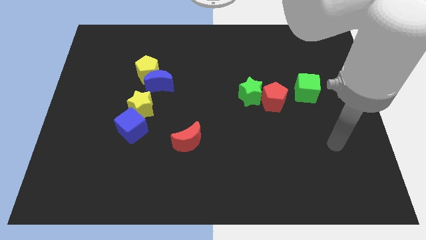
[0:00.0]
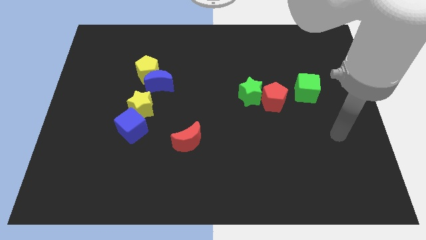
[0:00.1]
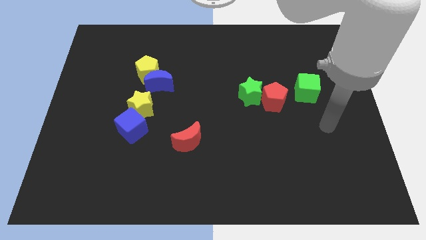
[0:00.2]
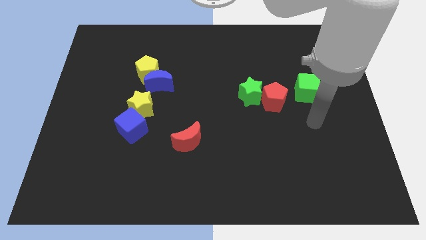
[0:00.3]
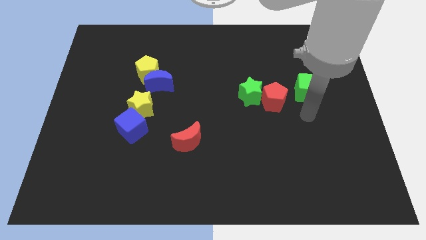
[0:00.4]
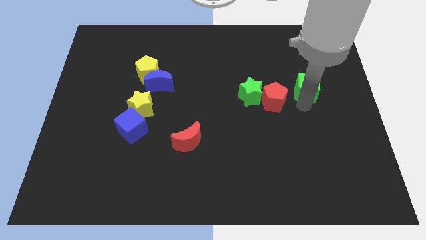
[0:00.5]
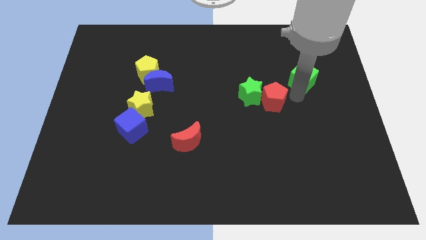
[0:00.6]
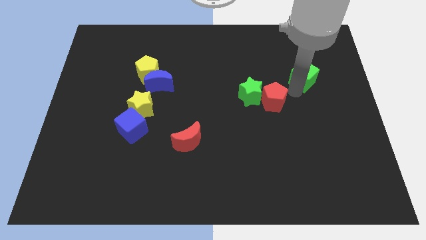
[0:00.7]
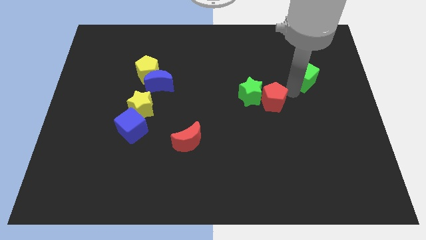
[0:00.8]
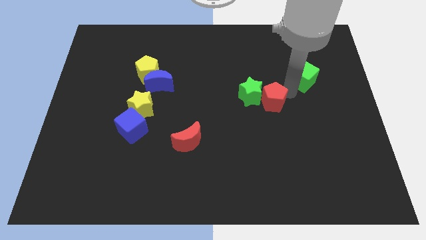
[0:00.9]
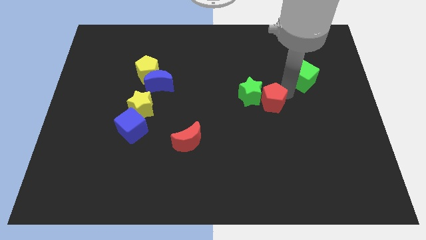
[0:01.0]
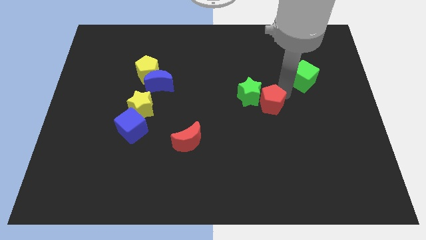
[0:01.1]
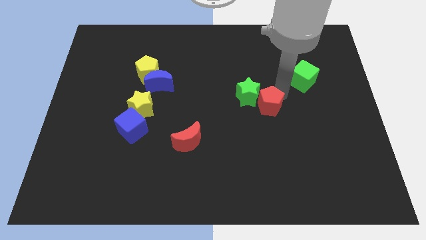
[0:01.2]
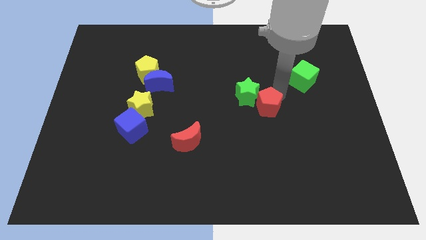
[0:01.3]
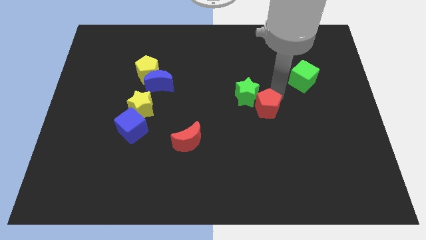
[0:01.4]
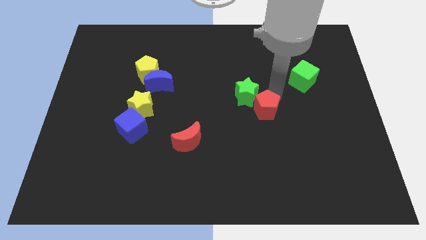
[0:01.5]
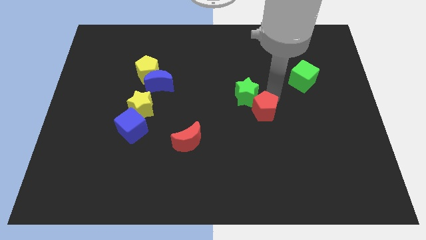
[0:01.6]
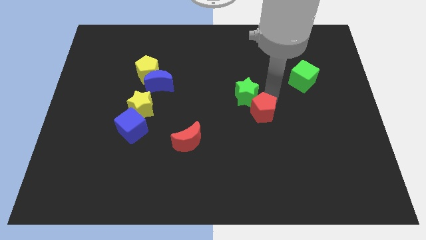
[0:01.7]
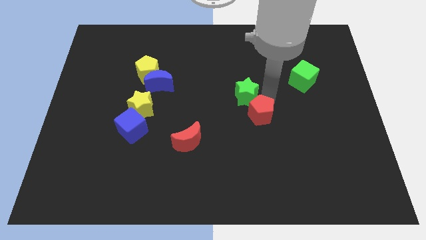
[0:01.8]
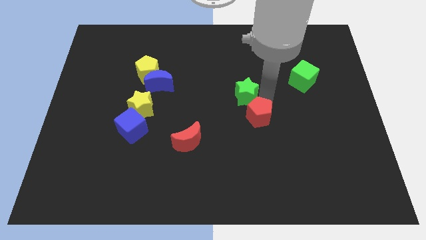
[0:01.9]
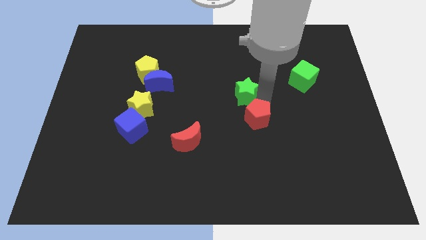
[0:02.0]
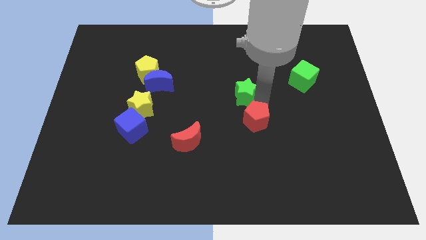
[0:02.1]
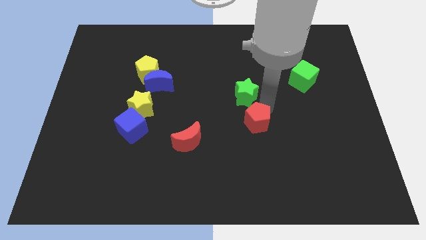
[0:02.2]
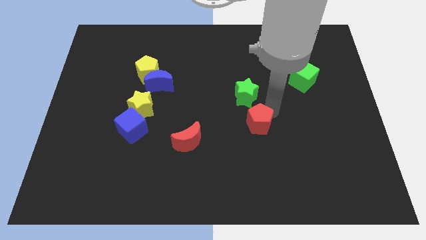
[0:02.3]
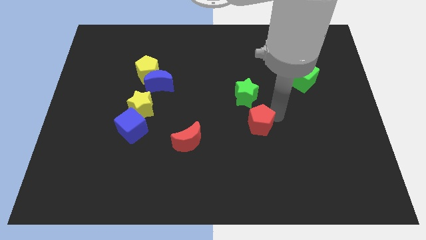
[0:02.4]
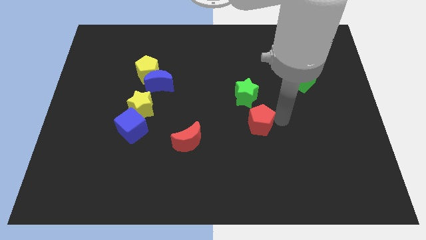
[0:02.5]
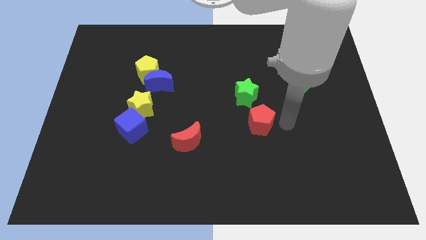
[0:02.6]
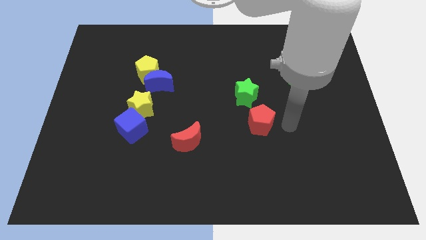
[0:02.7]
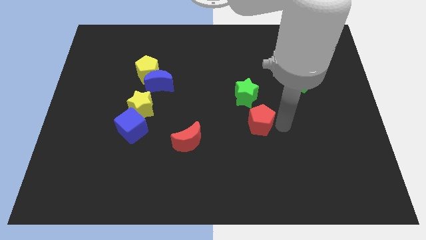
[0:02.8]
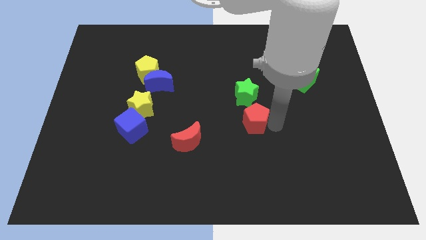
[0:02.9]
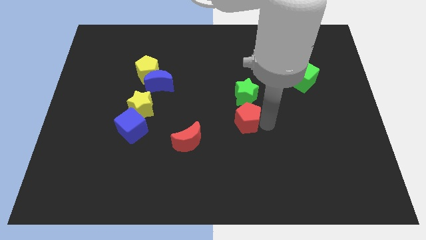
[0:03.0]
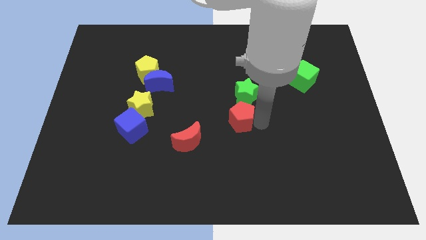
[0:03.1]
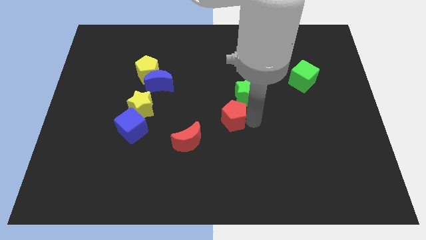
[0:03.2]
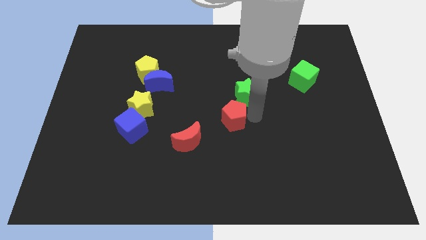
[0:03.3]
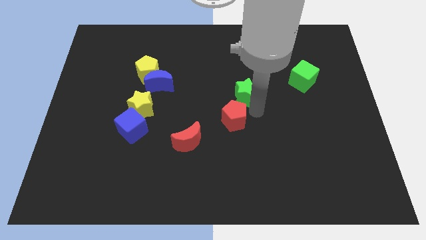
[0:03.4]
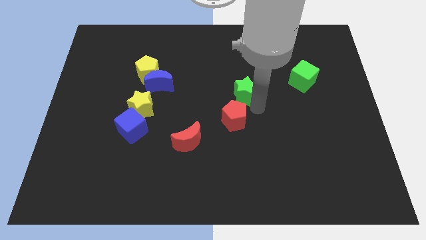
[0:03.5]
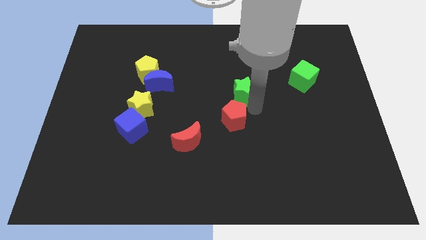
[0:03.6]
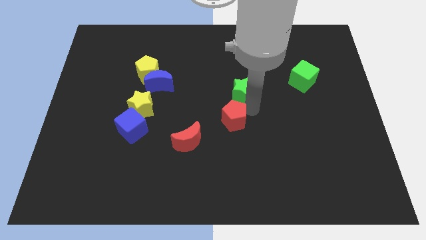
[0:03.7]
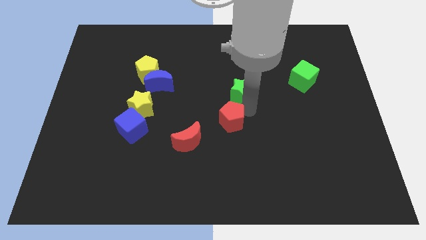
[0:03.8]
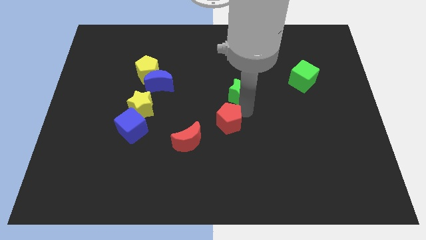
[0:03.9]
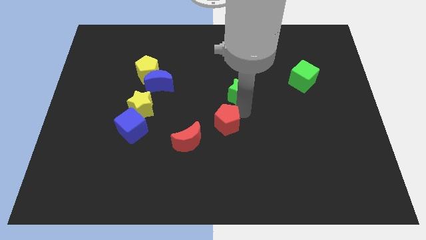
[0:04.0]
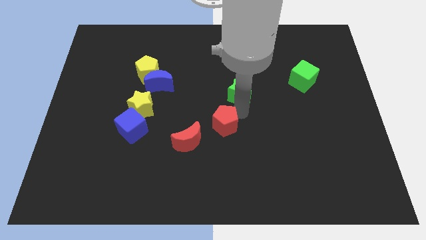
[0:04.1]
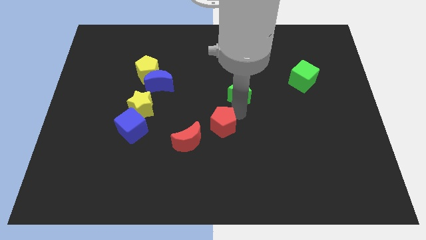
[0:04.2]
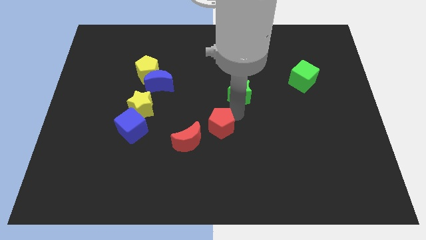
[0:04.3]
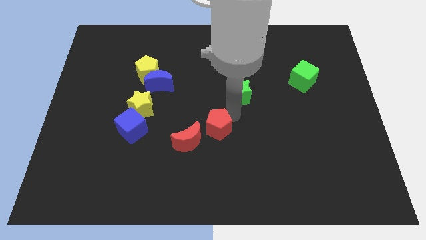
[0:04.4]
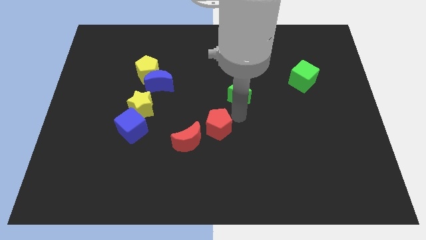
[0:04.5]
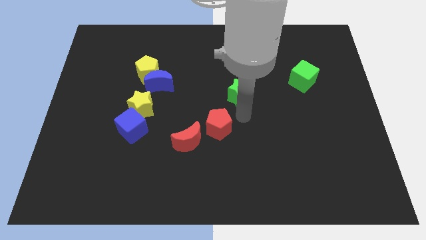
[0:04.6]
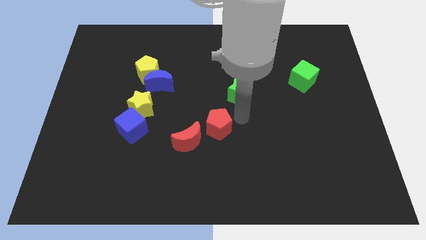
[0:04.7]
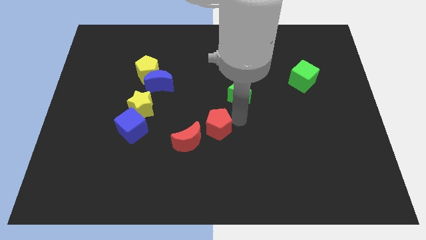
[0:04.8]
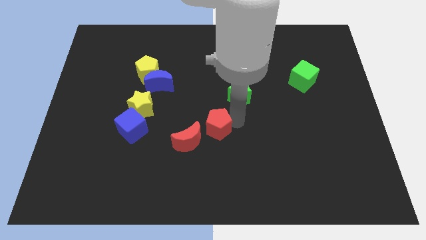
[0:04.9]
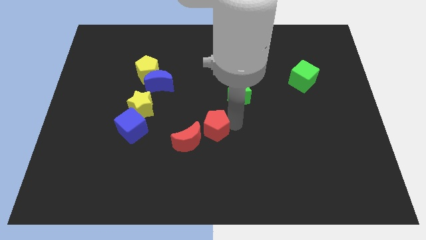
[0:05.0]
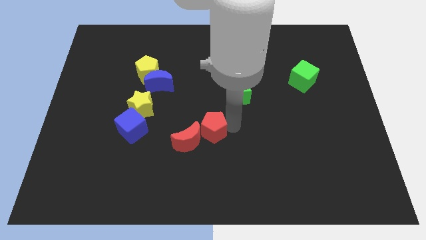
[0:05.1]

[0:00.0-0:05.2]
slide the red pentagon close to the red moon

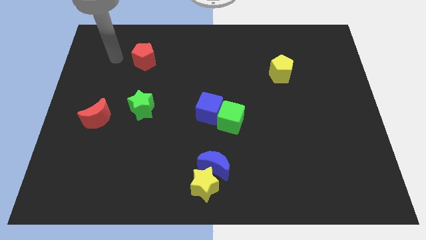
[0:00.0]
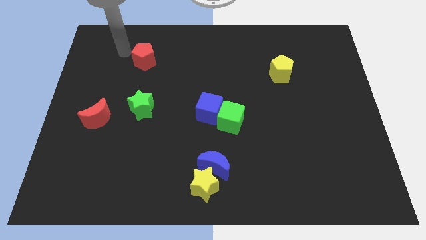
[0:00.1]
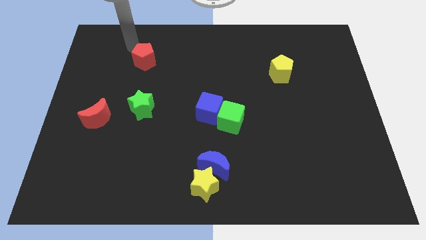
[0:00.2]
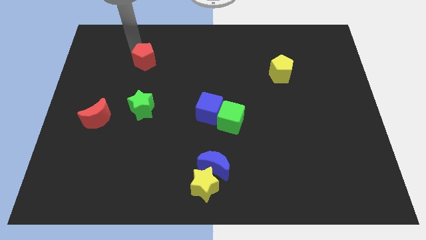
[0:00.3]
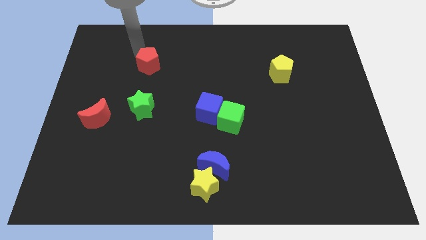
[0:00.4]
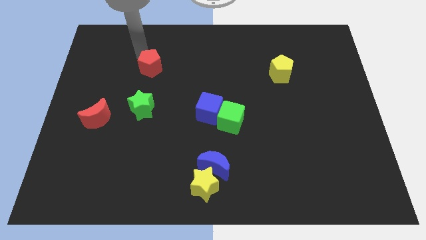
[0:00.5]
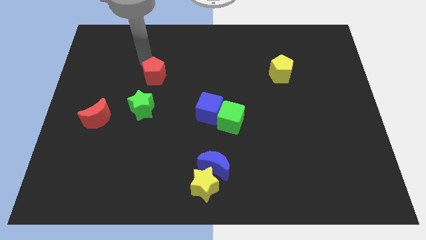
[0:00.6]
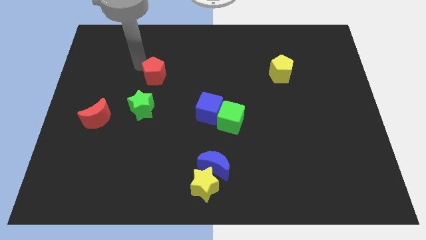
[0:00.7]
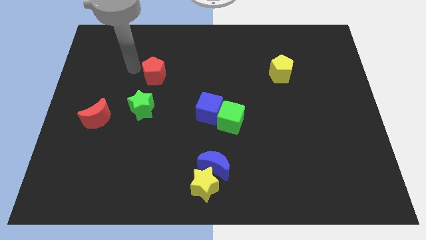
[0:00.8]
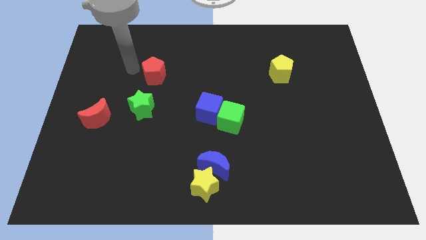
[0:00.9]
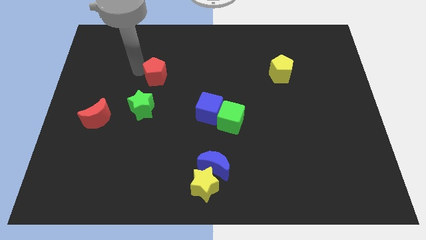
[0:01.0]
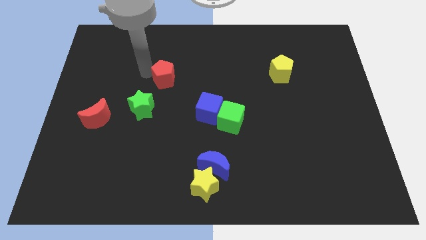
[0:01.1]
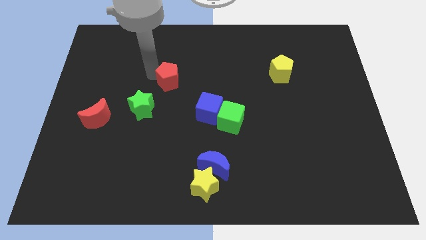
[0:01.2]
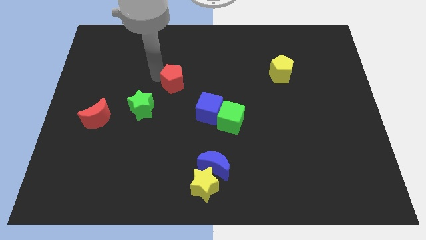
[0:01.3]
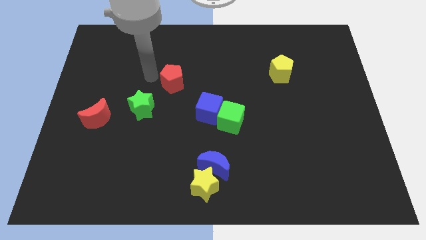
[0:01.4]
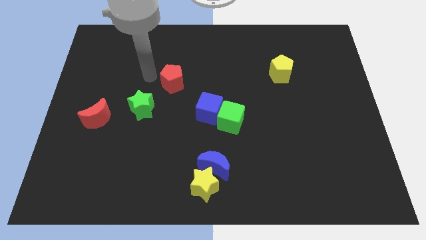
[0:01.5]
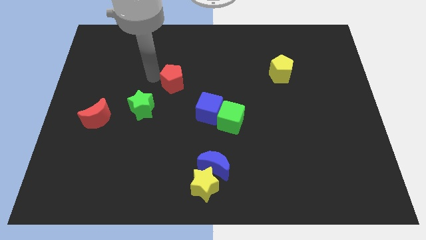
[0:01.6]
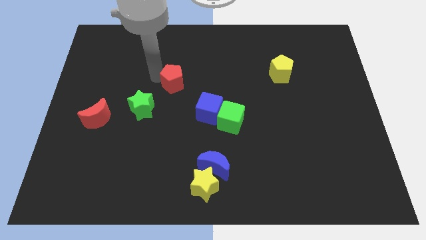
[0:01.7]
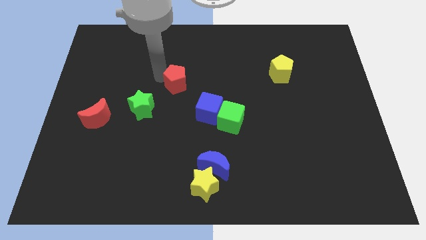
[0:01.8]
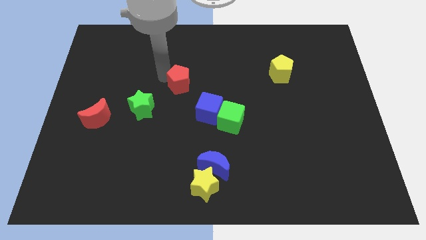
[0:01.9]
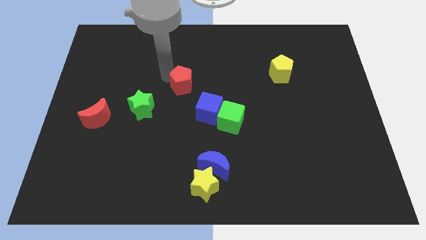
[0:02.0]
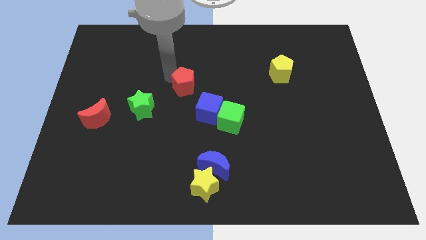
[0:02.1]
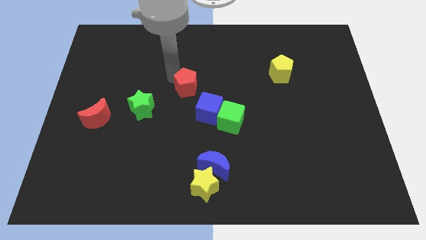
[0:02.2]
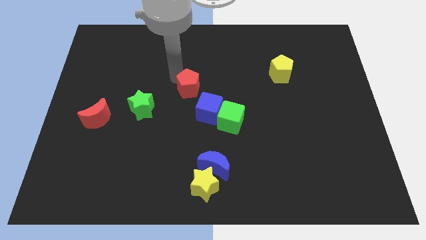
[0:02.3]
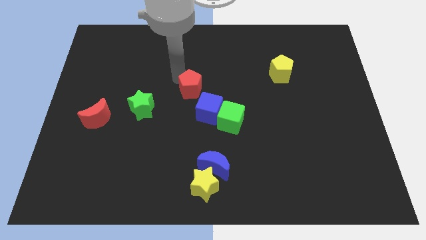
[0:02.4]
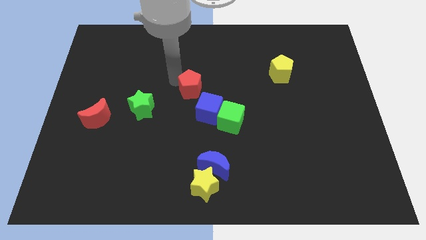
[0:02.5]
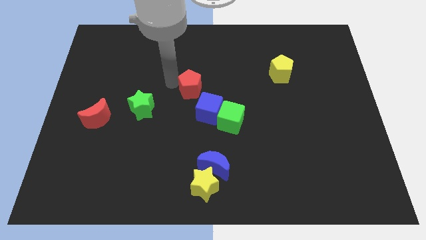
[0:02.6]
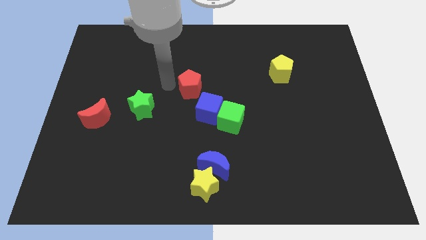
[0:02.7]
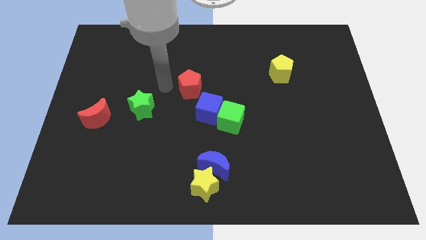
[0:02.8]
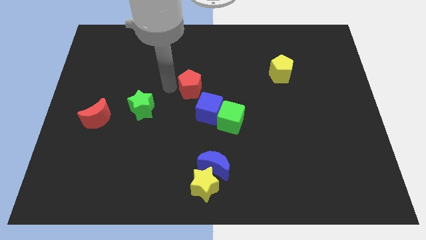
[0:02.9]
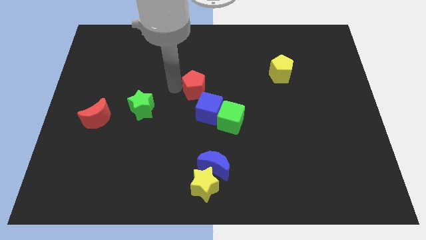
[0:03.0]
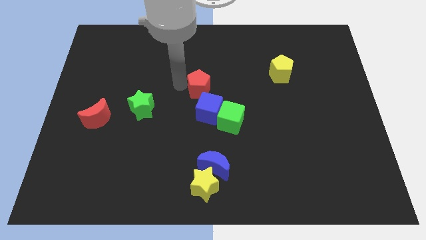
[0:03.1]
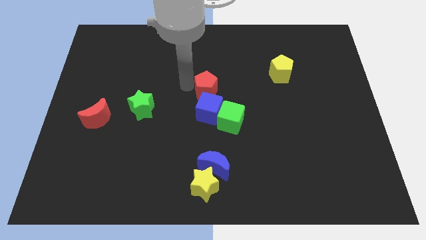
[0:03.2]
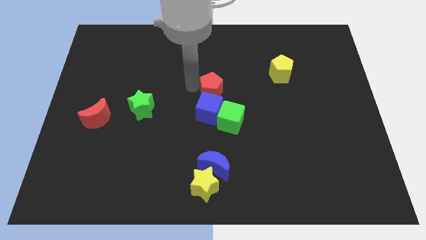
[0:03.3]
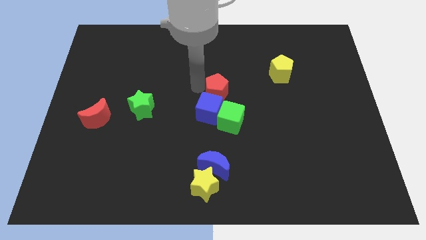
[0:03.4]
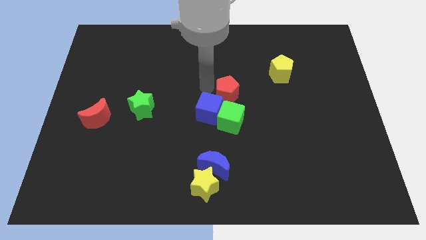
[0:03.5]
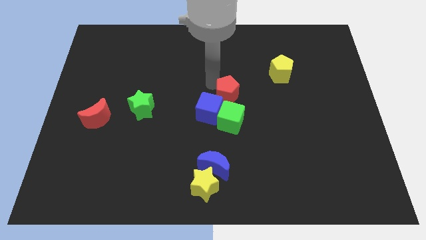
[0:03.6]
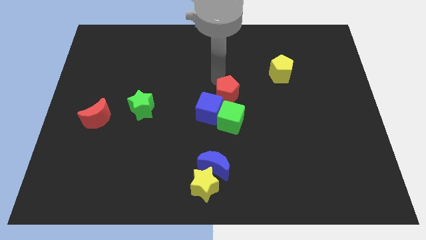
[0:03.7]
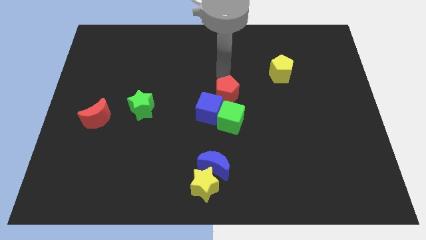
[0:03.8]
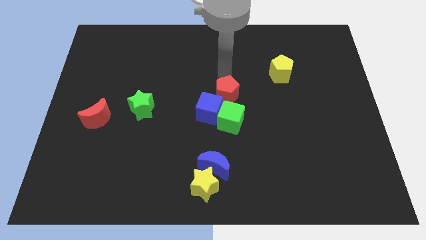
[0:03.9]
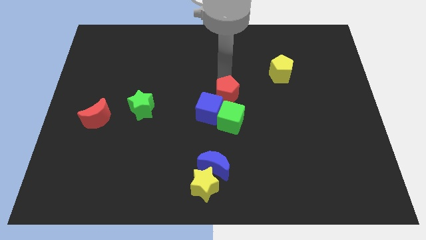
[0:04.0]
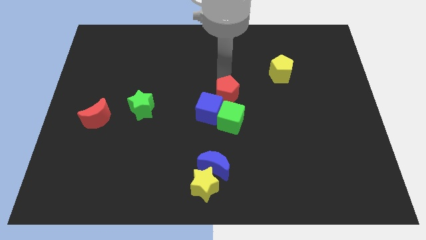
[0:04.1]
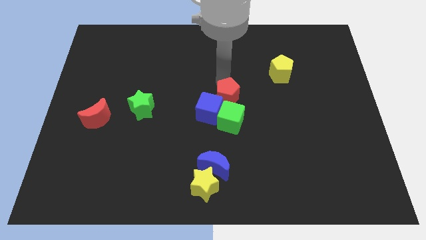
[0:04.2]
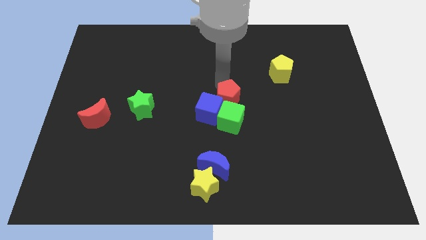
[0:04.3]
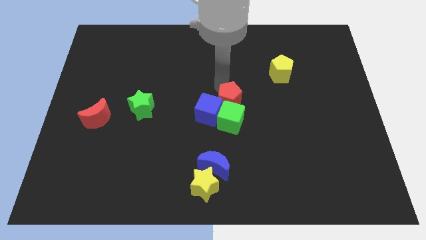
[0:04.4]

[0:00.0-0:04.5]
put the red pentagon next to the green cube
